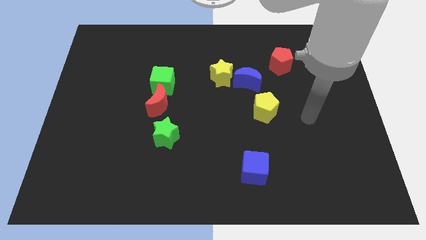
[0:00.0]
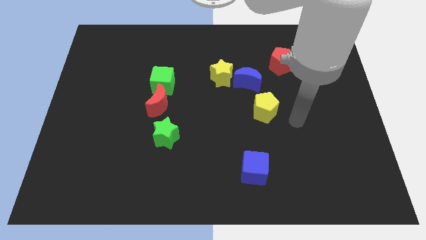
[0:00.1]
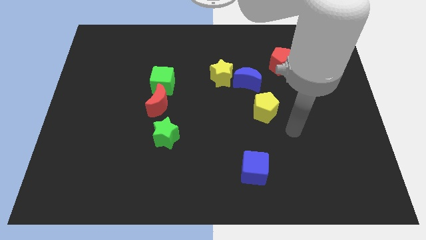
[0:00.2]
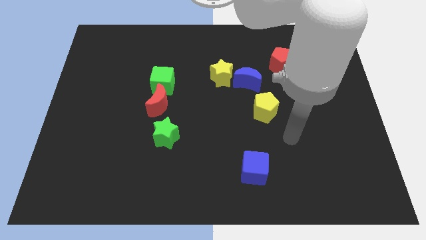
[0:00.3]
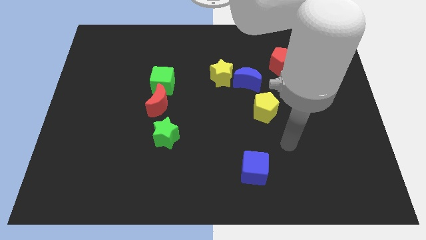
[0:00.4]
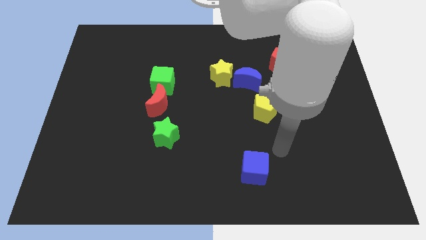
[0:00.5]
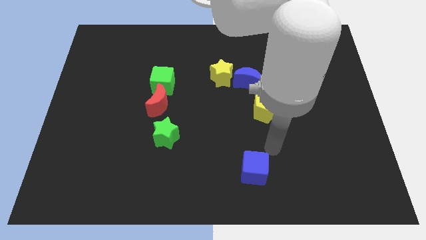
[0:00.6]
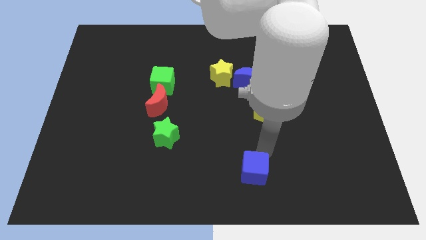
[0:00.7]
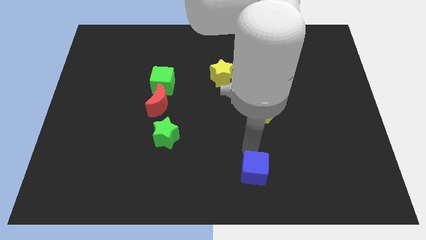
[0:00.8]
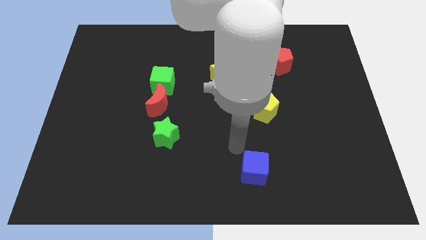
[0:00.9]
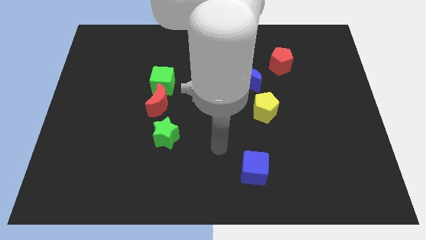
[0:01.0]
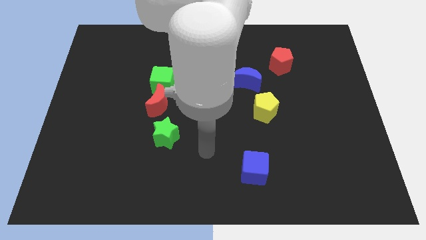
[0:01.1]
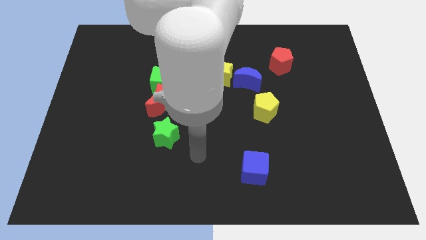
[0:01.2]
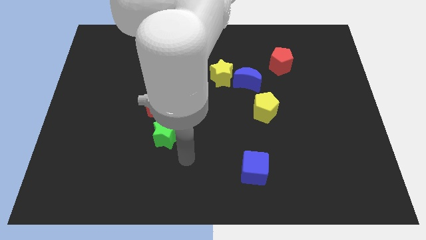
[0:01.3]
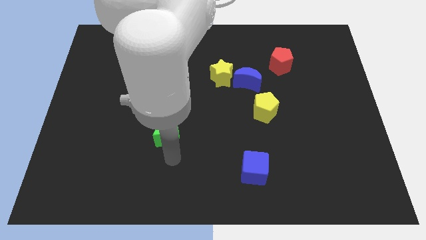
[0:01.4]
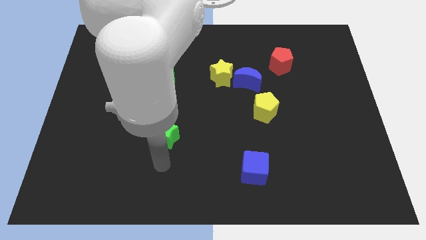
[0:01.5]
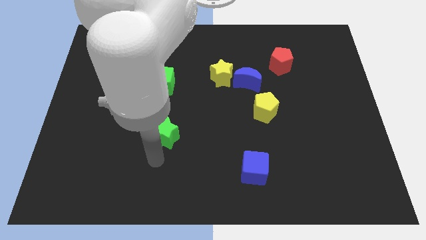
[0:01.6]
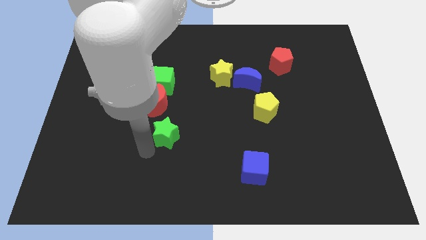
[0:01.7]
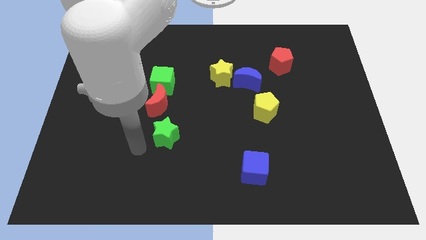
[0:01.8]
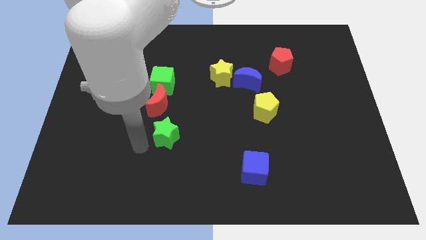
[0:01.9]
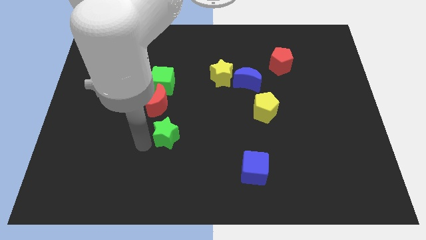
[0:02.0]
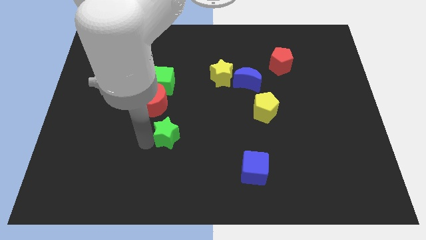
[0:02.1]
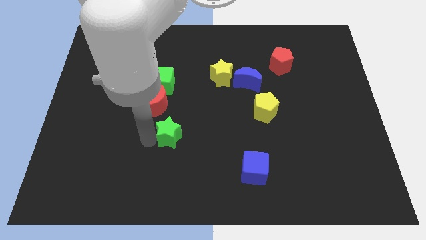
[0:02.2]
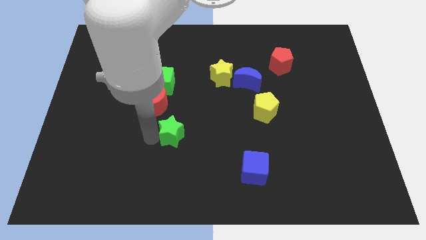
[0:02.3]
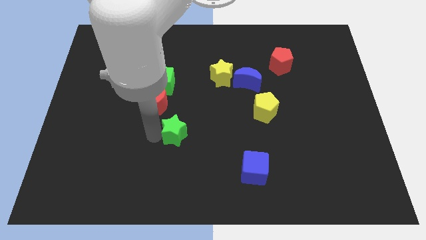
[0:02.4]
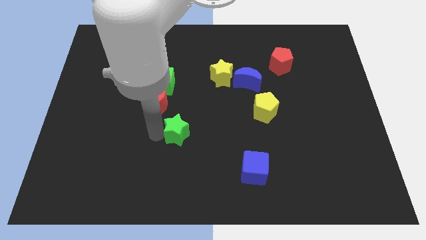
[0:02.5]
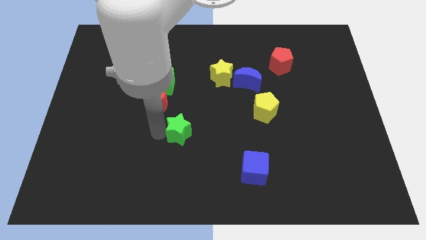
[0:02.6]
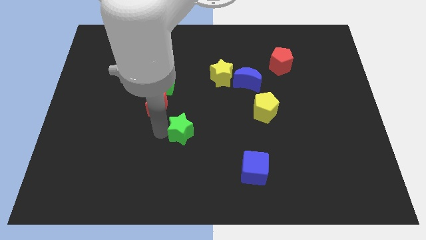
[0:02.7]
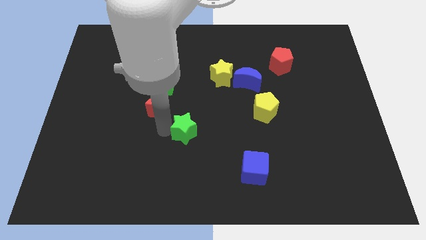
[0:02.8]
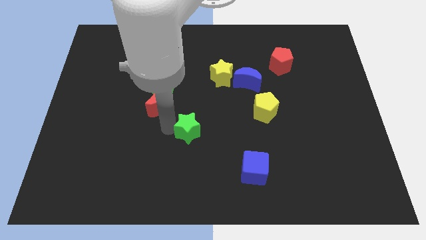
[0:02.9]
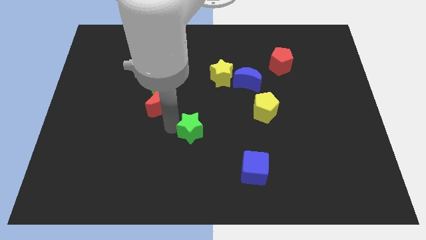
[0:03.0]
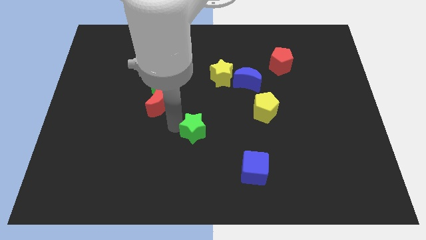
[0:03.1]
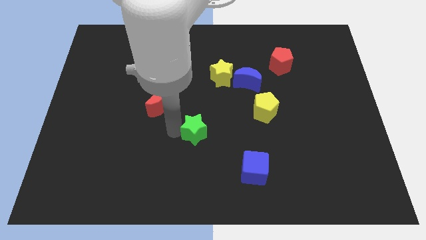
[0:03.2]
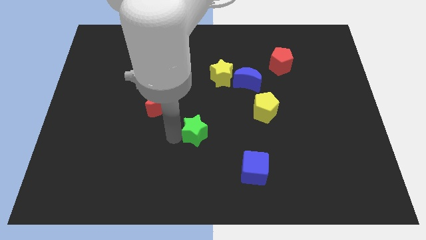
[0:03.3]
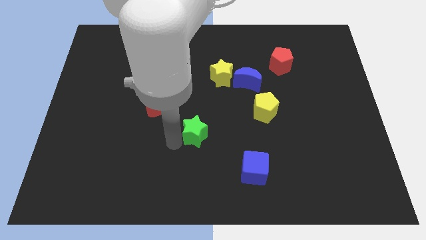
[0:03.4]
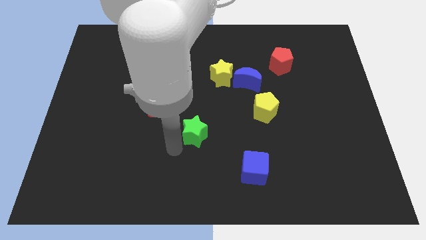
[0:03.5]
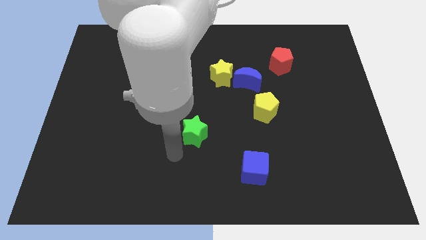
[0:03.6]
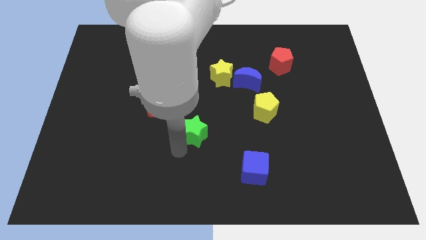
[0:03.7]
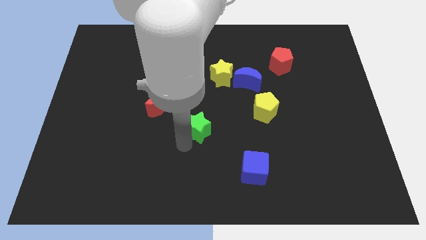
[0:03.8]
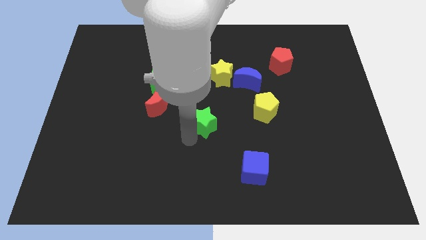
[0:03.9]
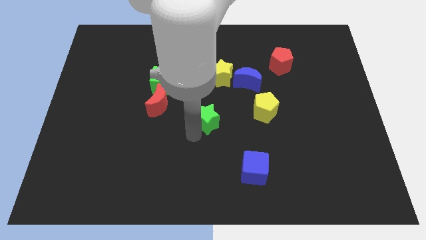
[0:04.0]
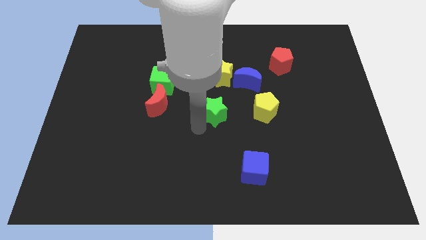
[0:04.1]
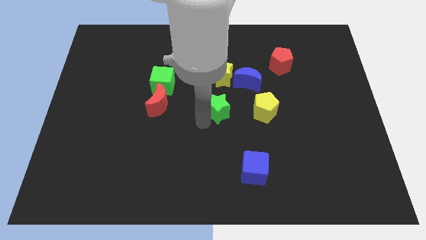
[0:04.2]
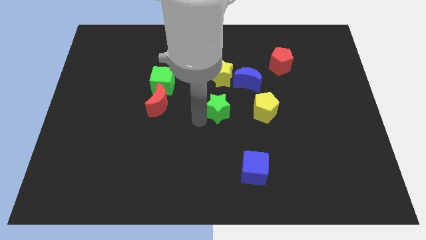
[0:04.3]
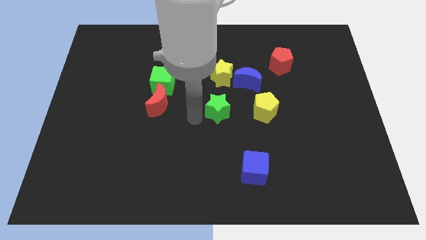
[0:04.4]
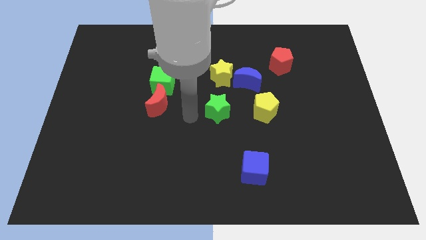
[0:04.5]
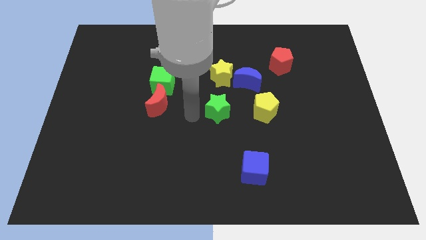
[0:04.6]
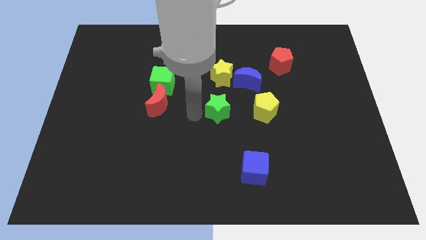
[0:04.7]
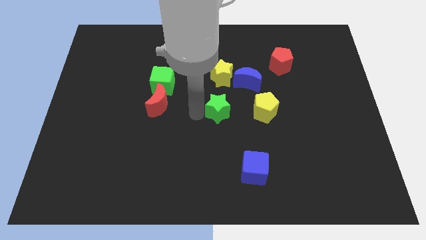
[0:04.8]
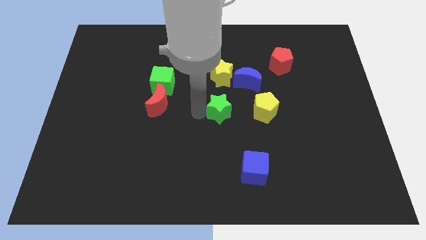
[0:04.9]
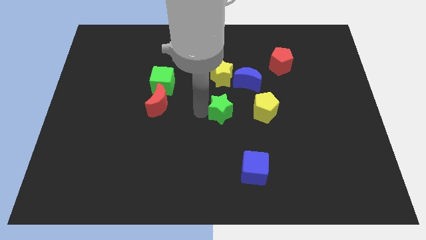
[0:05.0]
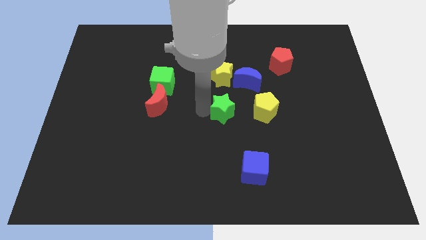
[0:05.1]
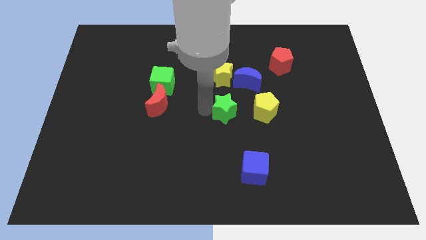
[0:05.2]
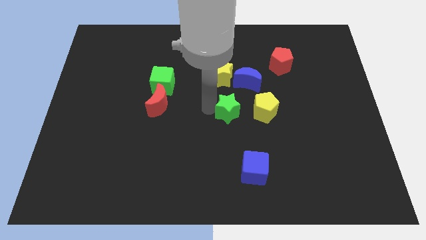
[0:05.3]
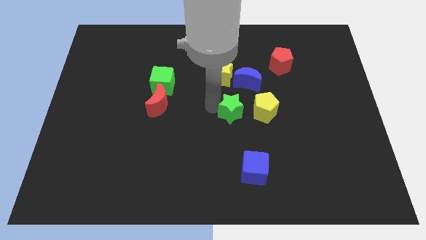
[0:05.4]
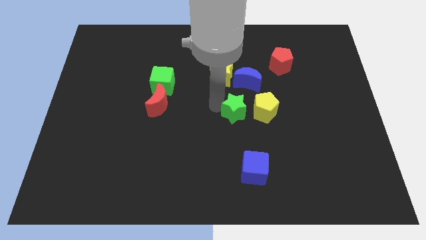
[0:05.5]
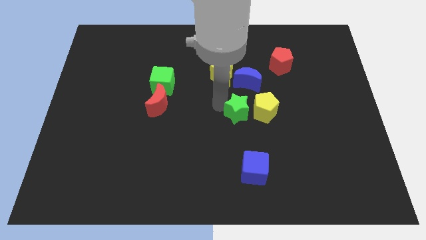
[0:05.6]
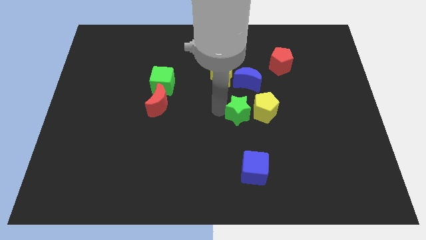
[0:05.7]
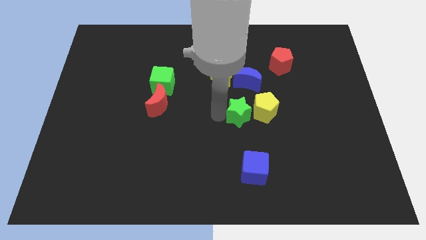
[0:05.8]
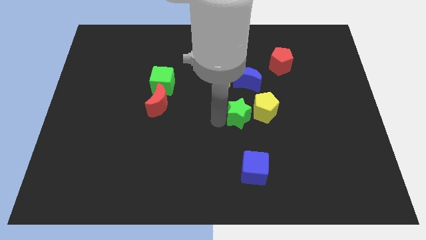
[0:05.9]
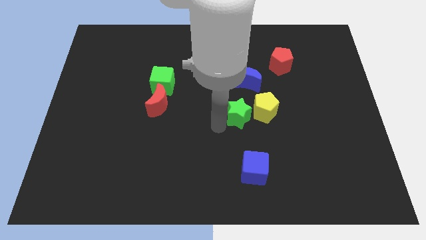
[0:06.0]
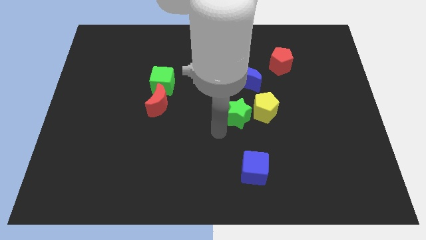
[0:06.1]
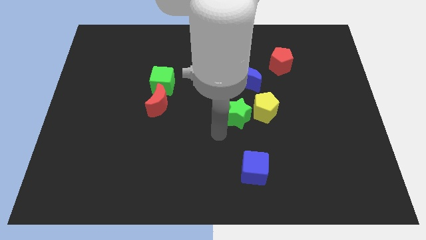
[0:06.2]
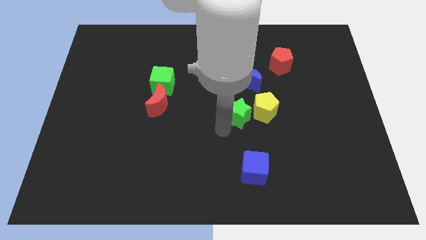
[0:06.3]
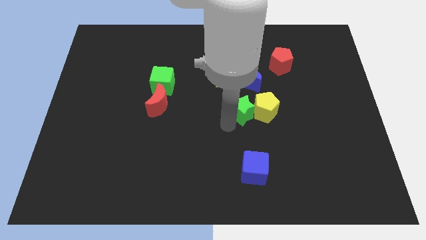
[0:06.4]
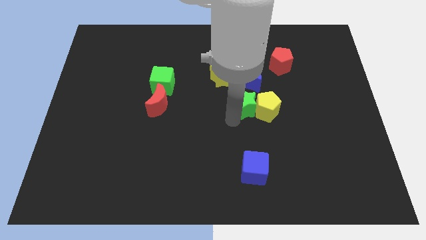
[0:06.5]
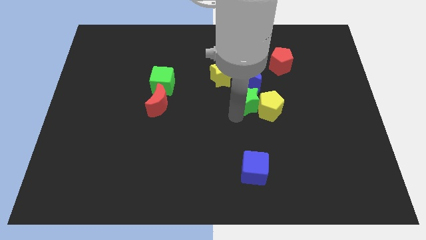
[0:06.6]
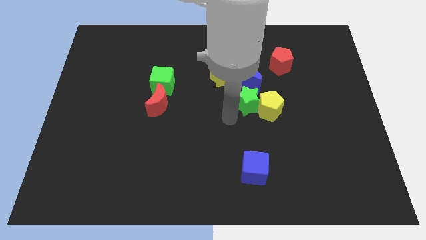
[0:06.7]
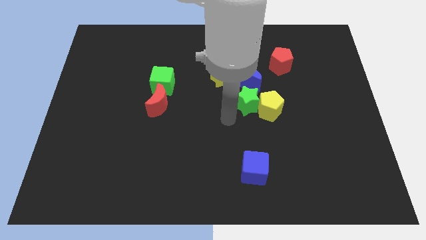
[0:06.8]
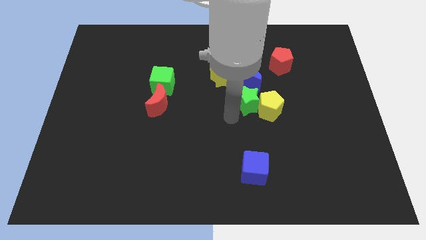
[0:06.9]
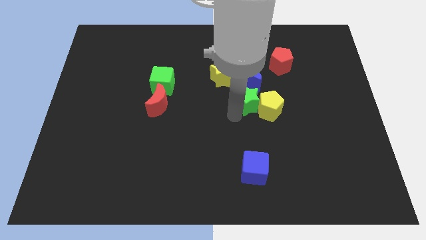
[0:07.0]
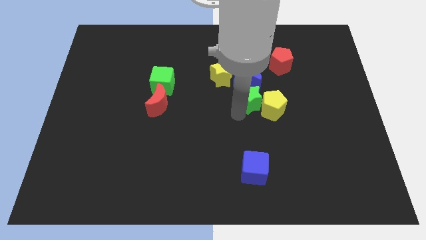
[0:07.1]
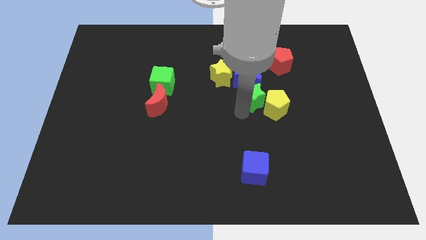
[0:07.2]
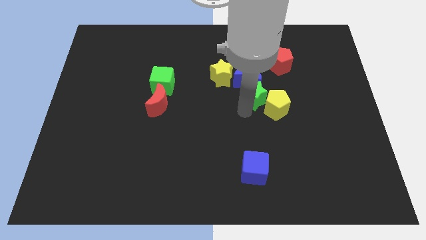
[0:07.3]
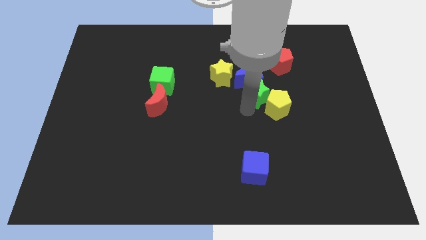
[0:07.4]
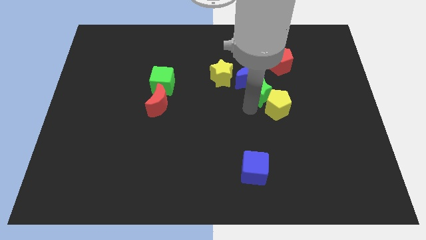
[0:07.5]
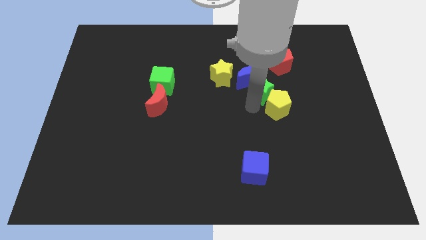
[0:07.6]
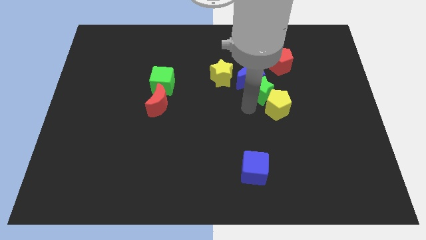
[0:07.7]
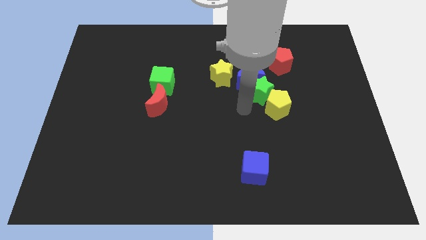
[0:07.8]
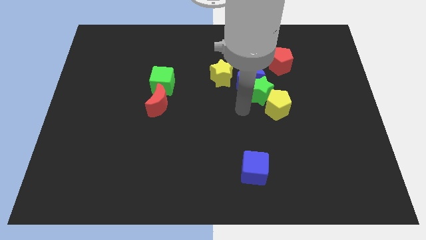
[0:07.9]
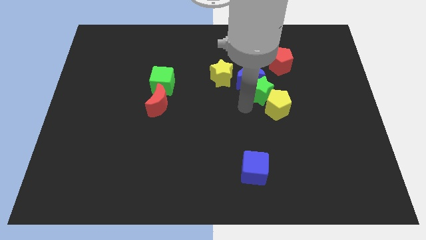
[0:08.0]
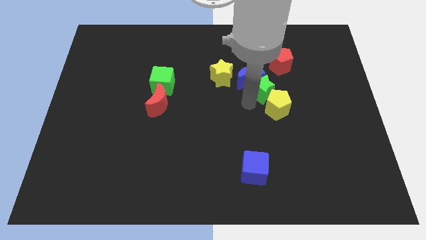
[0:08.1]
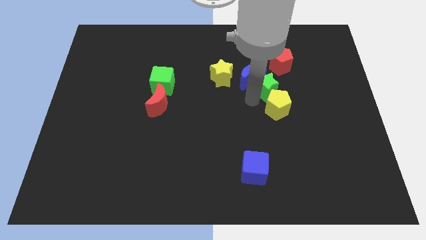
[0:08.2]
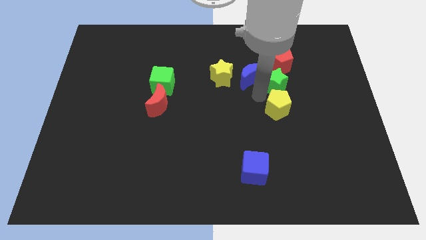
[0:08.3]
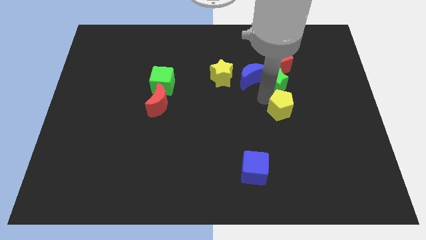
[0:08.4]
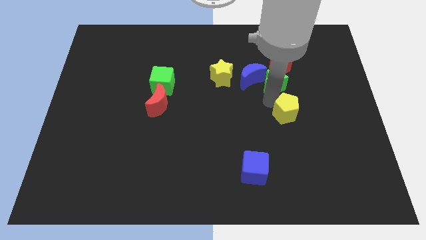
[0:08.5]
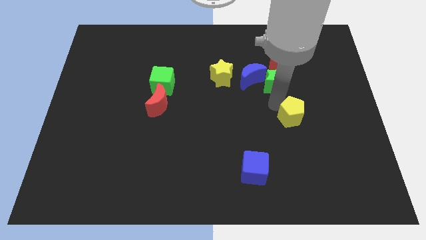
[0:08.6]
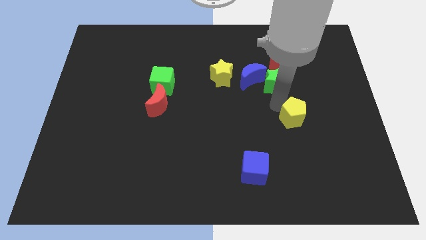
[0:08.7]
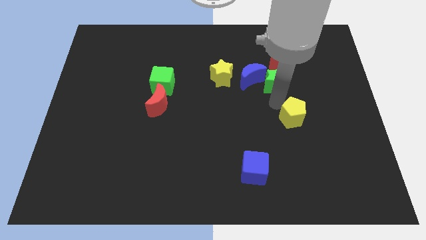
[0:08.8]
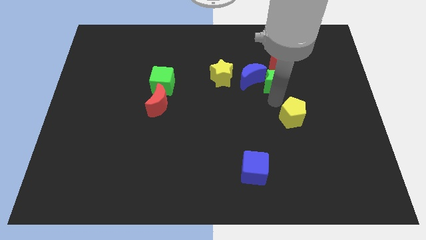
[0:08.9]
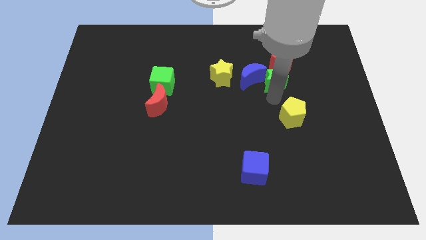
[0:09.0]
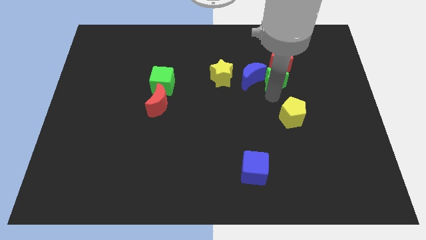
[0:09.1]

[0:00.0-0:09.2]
slide the green star to the top right side of the blue moon
